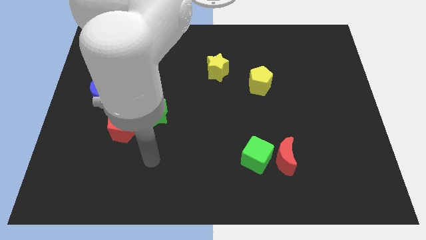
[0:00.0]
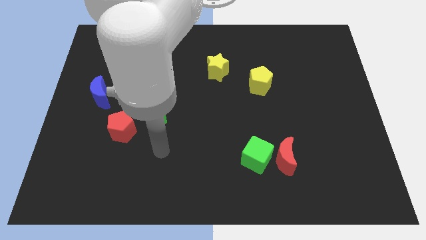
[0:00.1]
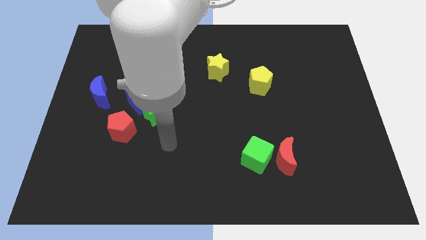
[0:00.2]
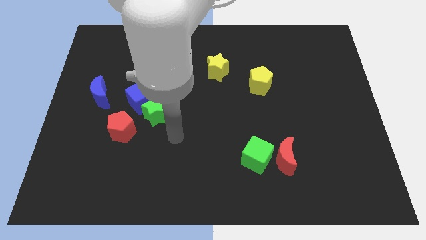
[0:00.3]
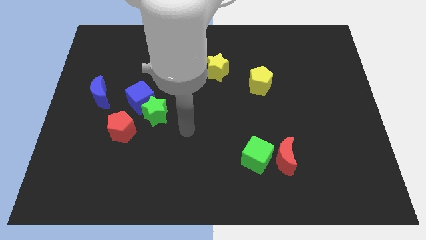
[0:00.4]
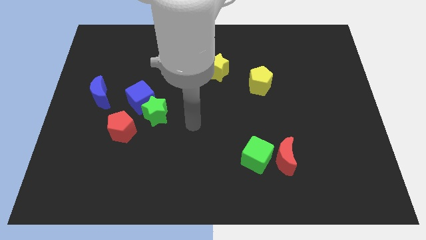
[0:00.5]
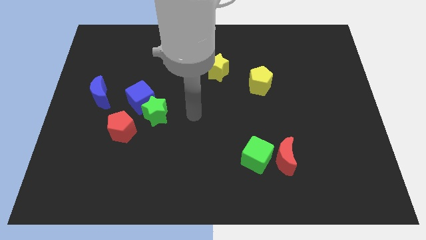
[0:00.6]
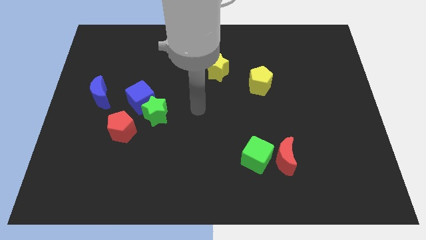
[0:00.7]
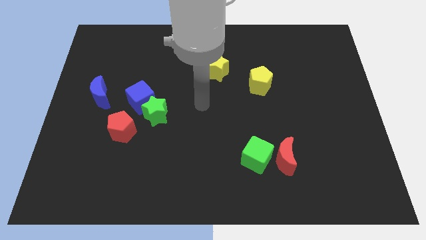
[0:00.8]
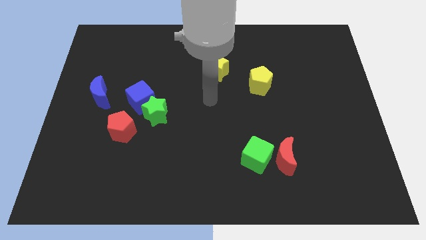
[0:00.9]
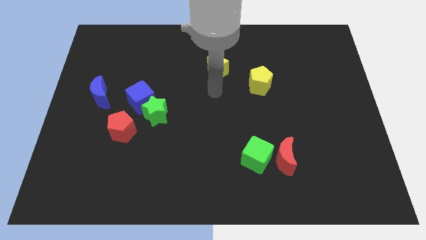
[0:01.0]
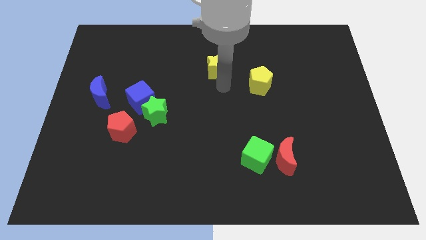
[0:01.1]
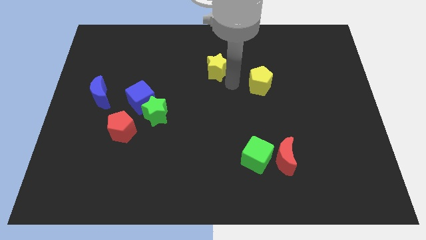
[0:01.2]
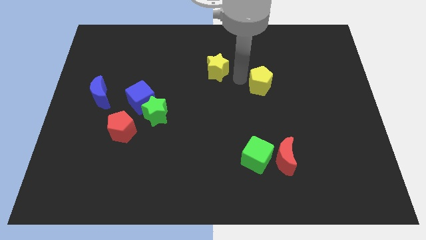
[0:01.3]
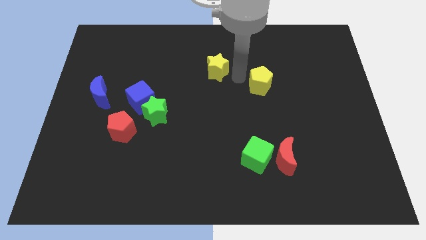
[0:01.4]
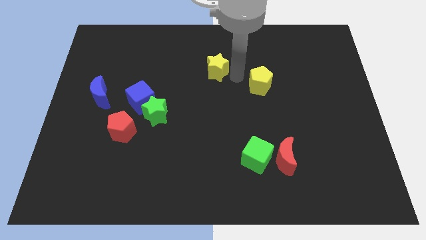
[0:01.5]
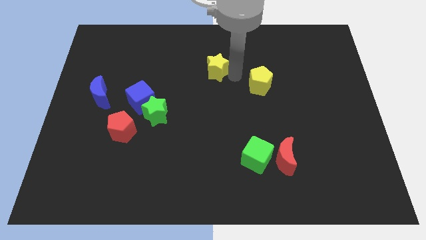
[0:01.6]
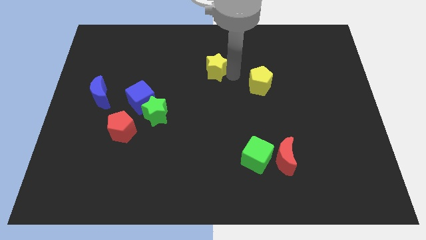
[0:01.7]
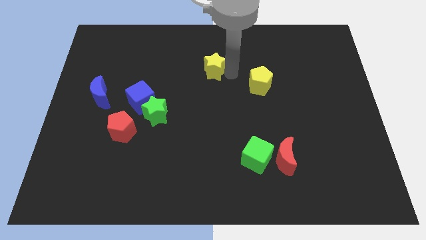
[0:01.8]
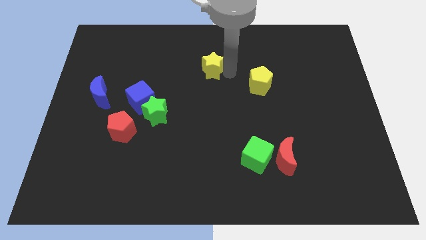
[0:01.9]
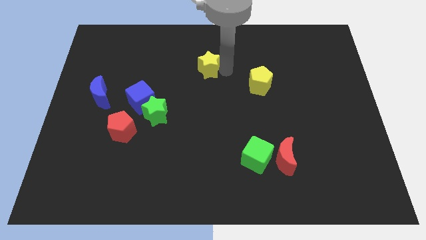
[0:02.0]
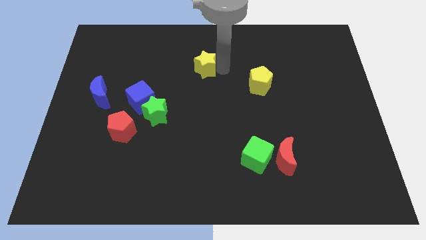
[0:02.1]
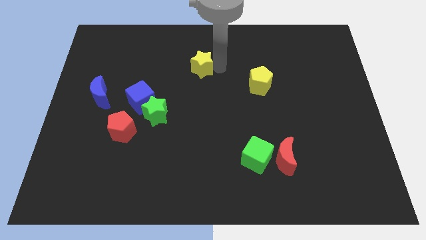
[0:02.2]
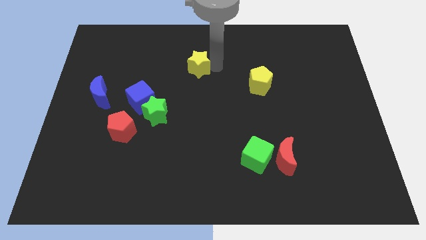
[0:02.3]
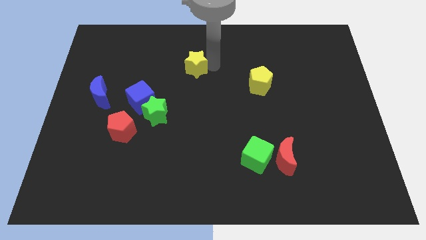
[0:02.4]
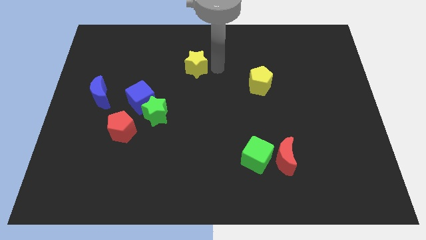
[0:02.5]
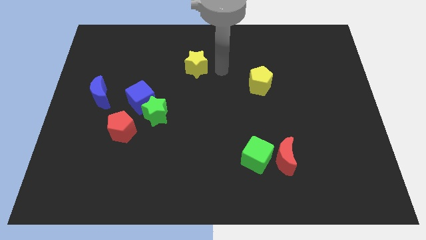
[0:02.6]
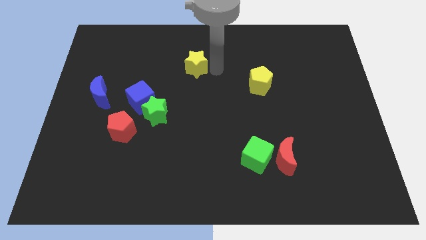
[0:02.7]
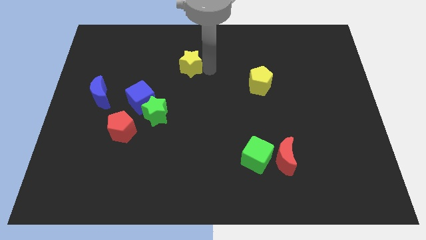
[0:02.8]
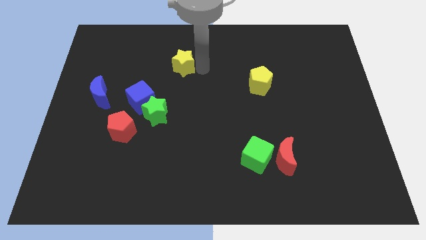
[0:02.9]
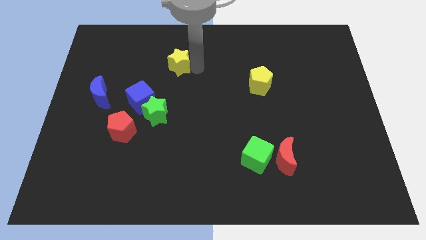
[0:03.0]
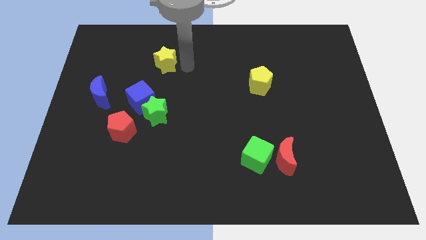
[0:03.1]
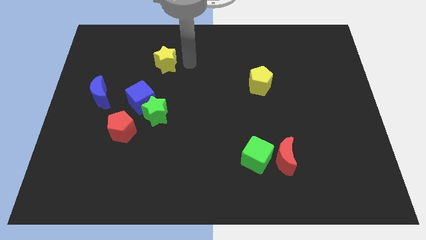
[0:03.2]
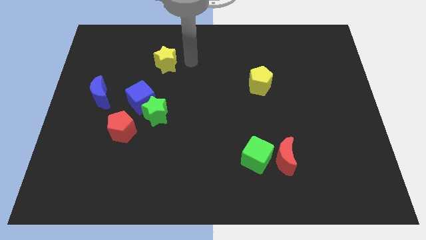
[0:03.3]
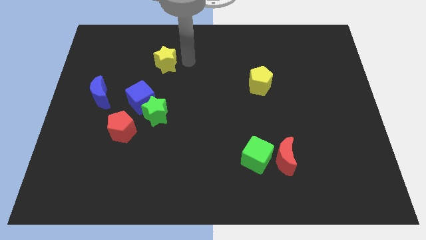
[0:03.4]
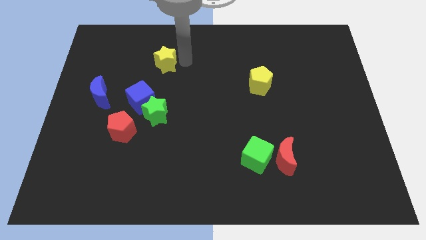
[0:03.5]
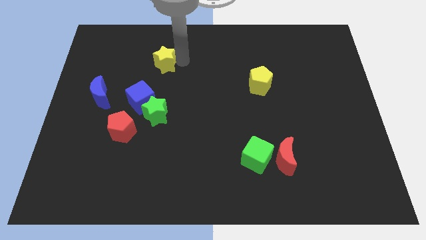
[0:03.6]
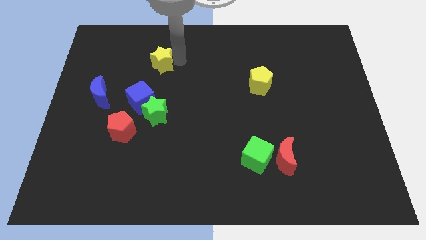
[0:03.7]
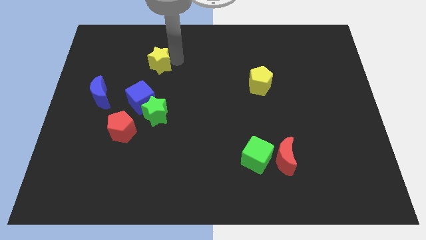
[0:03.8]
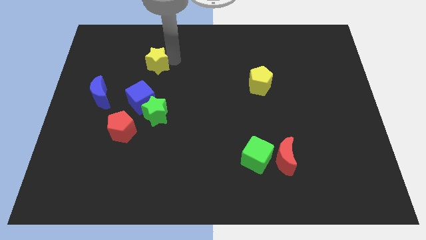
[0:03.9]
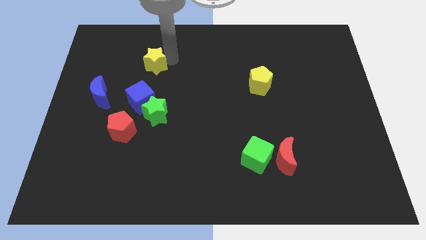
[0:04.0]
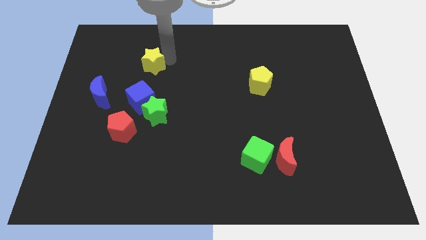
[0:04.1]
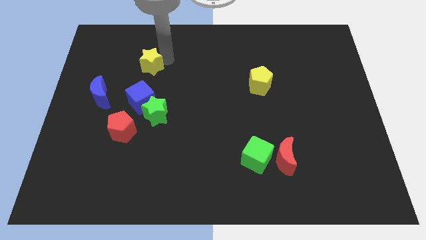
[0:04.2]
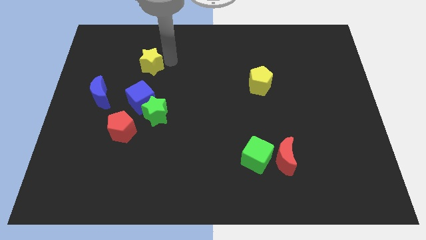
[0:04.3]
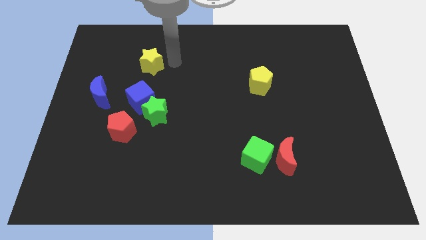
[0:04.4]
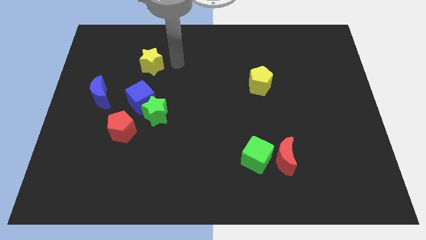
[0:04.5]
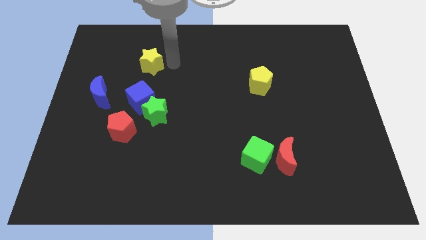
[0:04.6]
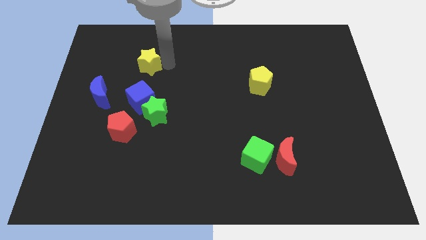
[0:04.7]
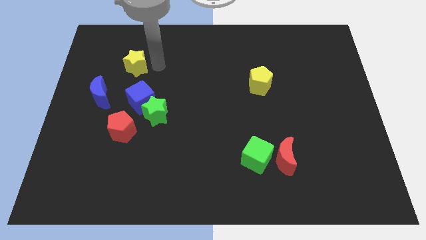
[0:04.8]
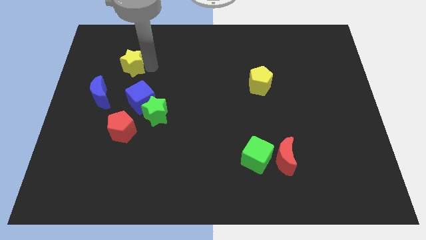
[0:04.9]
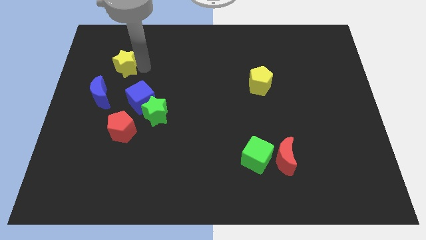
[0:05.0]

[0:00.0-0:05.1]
push the yellow star to the top side of the blue moon

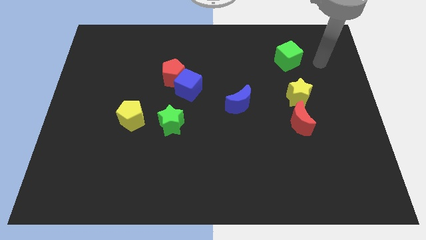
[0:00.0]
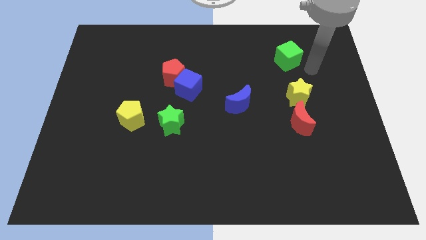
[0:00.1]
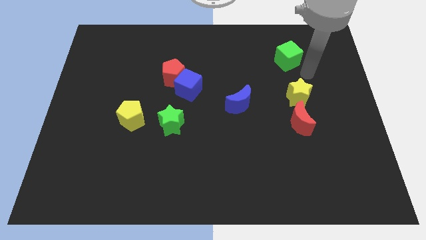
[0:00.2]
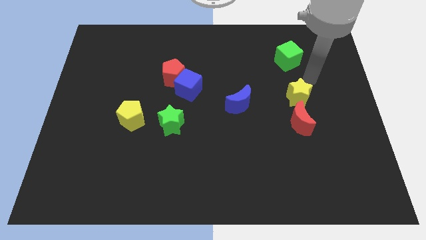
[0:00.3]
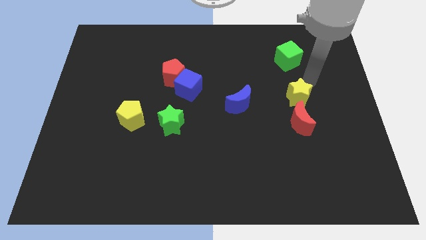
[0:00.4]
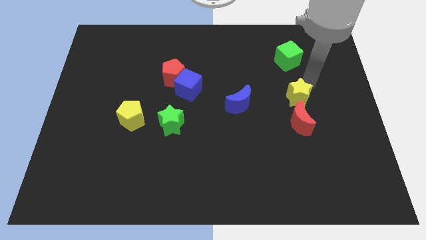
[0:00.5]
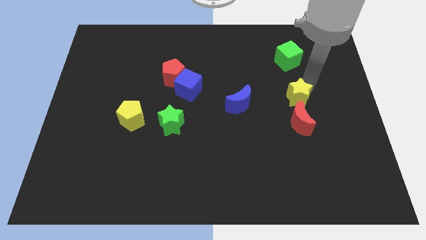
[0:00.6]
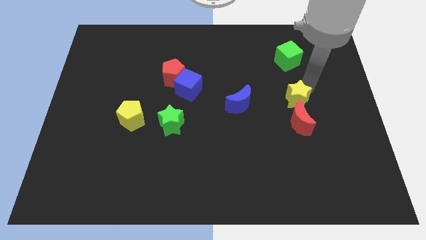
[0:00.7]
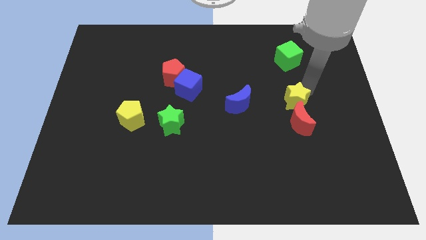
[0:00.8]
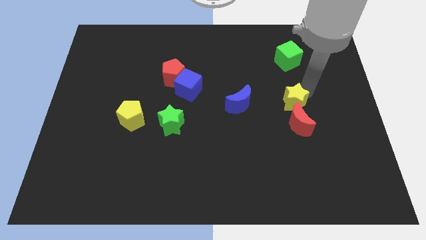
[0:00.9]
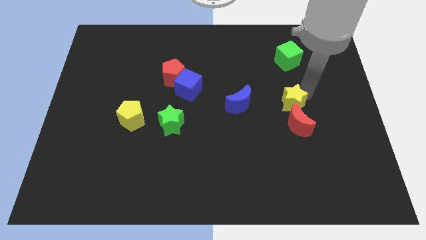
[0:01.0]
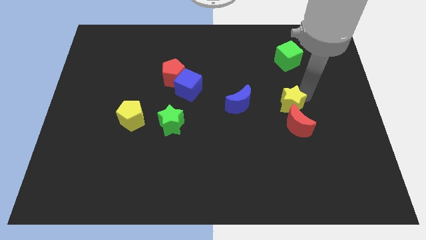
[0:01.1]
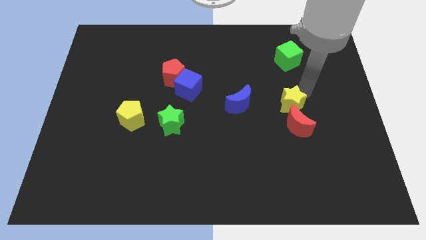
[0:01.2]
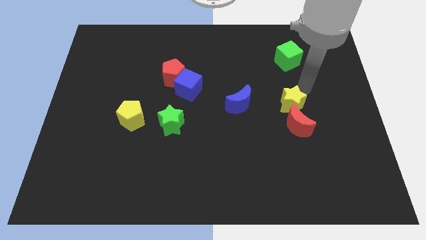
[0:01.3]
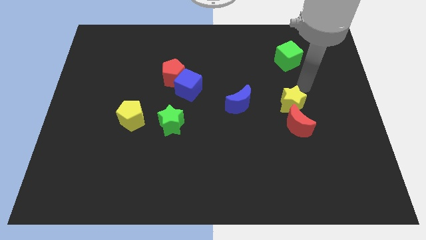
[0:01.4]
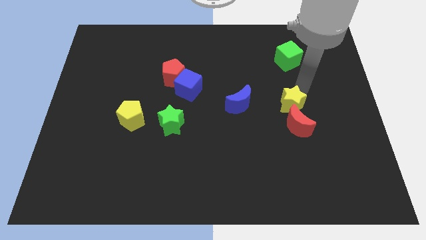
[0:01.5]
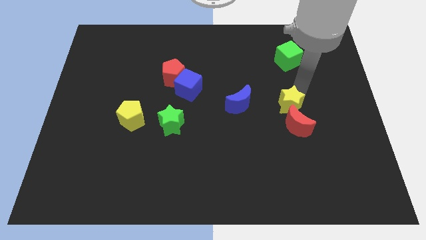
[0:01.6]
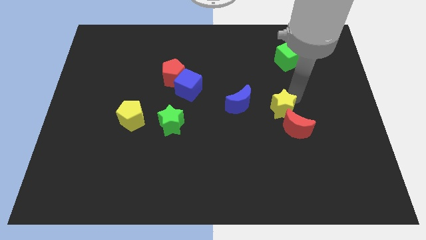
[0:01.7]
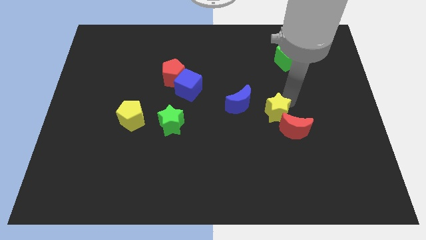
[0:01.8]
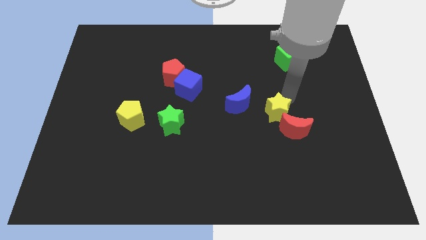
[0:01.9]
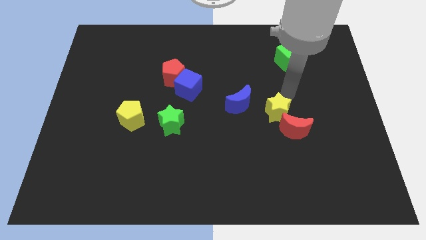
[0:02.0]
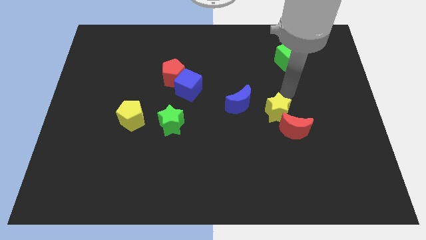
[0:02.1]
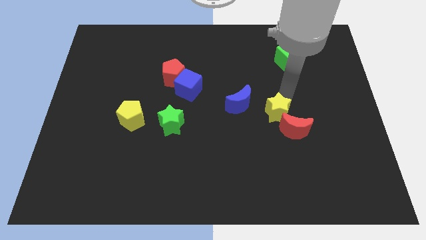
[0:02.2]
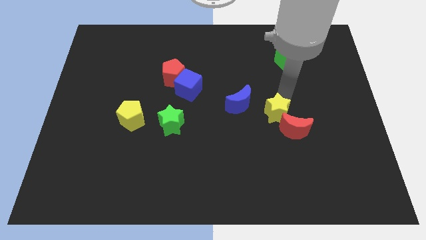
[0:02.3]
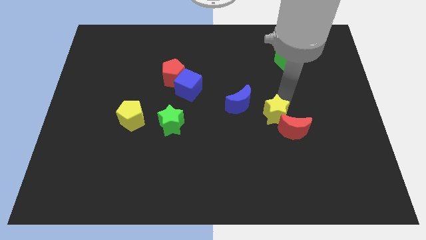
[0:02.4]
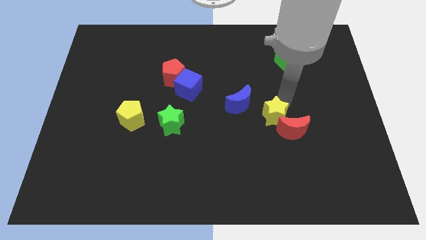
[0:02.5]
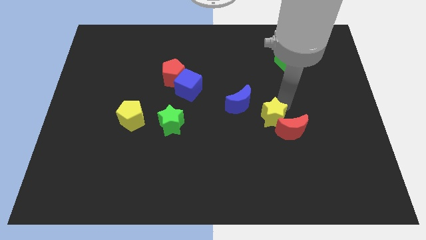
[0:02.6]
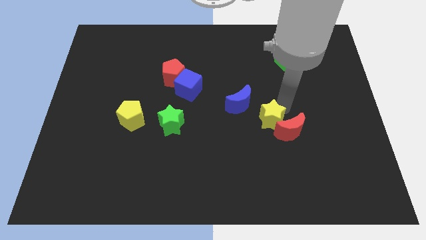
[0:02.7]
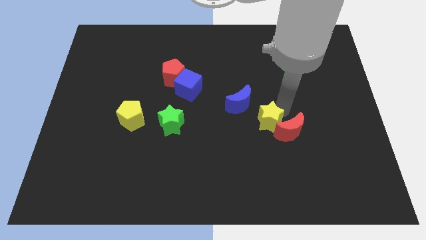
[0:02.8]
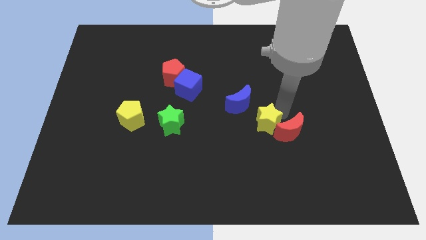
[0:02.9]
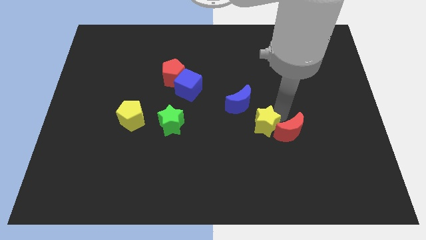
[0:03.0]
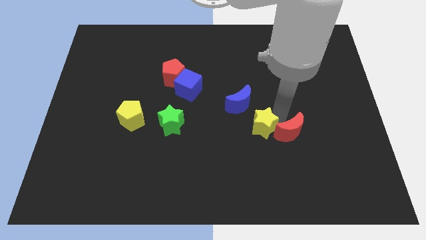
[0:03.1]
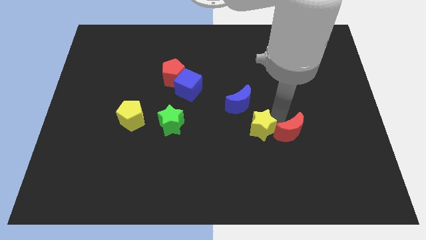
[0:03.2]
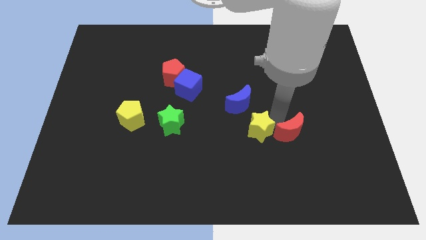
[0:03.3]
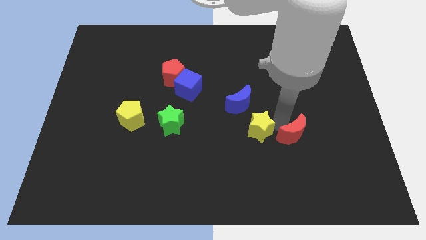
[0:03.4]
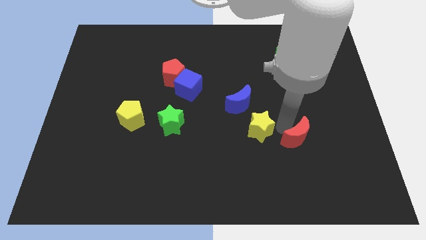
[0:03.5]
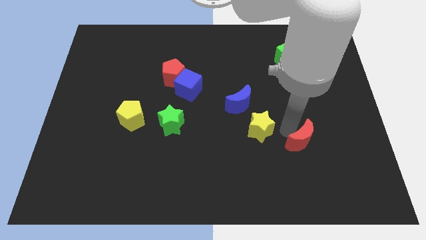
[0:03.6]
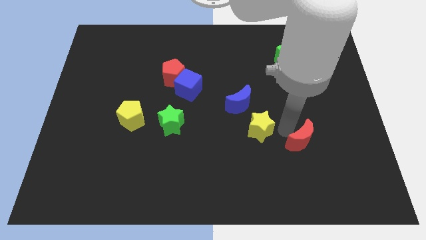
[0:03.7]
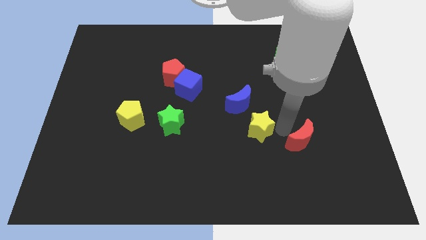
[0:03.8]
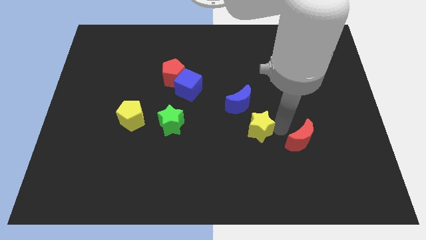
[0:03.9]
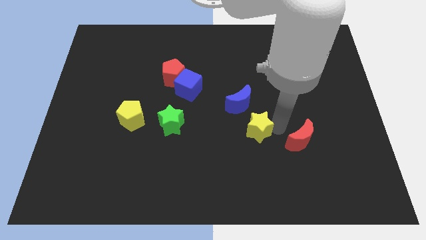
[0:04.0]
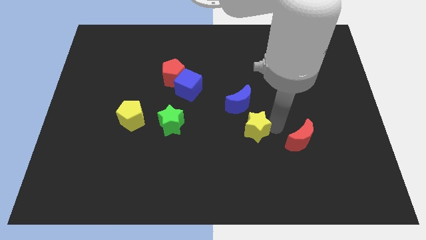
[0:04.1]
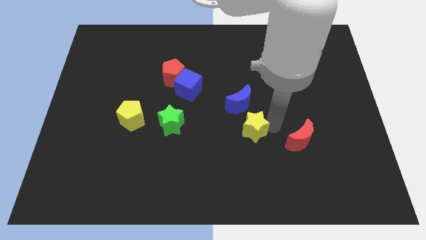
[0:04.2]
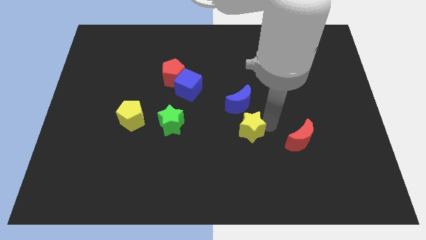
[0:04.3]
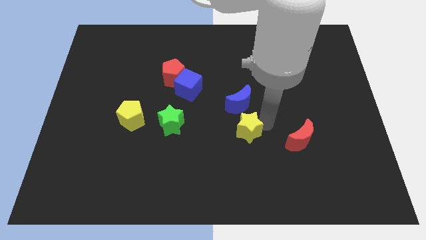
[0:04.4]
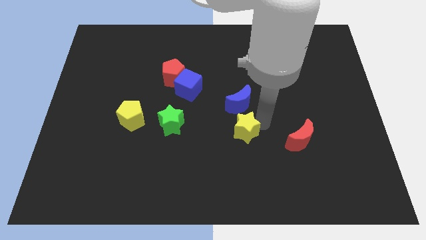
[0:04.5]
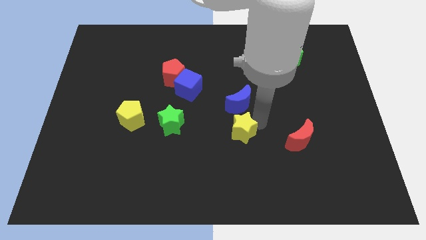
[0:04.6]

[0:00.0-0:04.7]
slide the yellow star to the right of the green star
